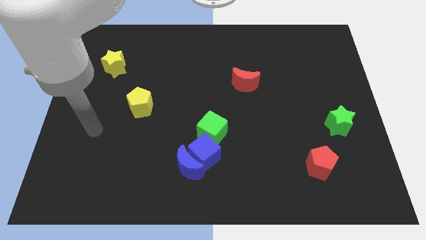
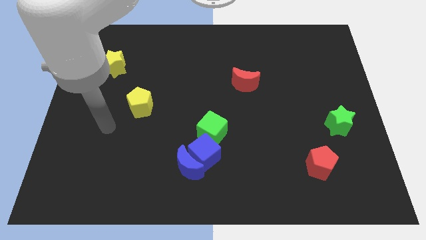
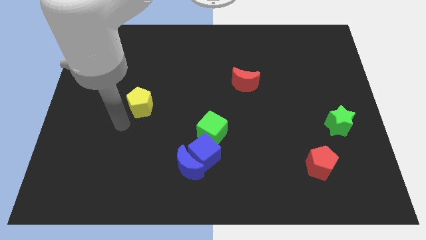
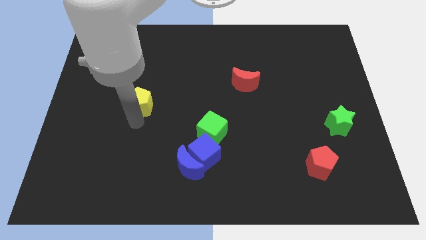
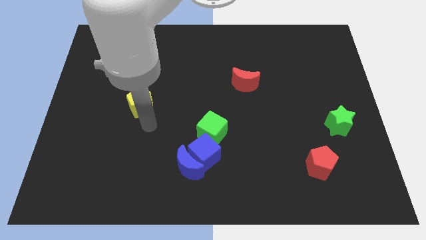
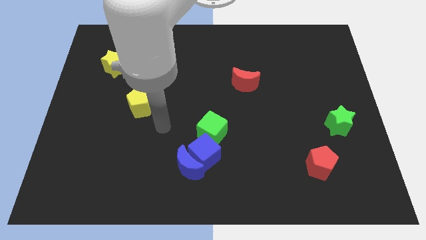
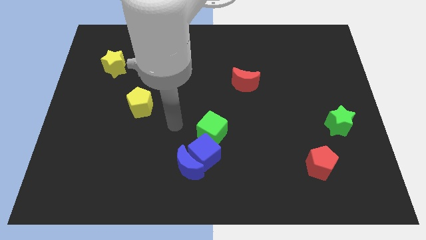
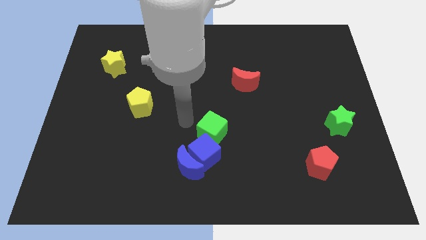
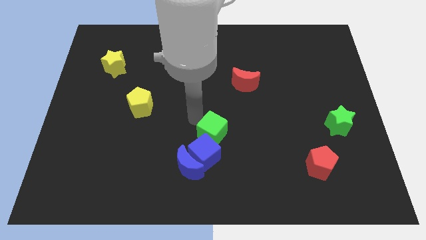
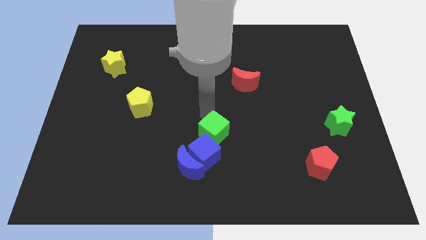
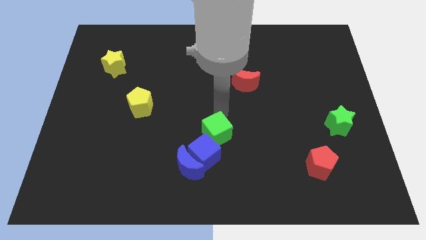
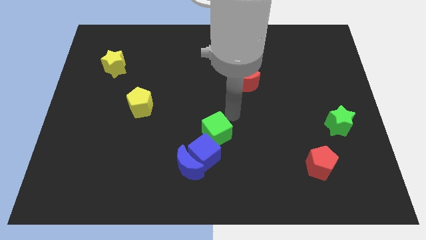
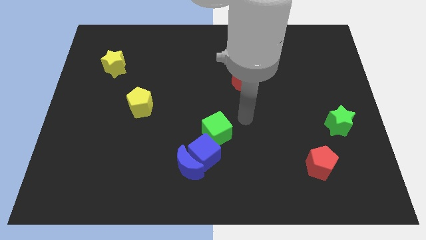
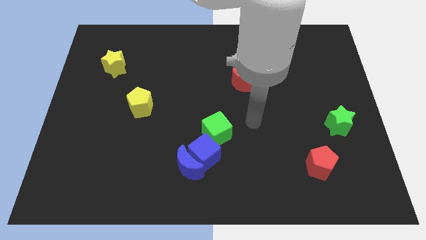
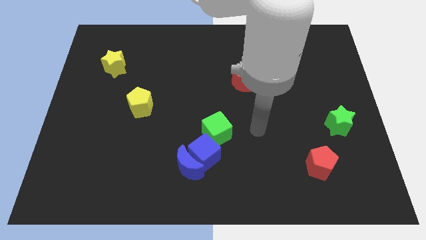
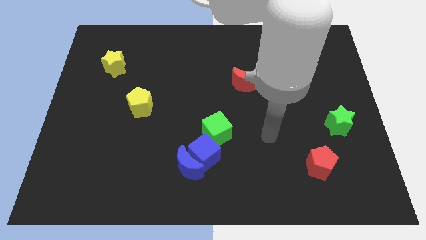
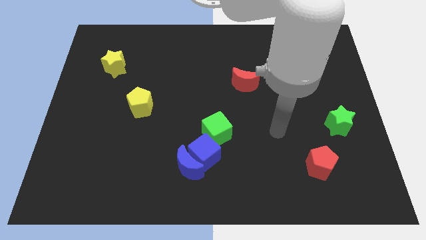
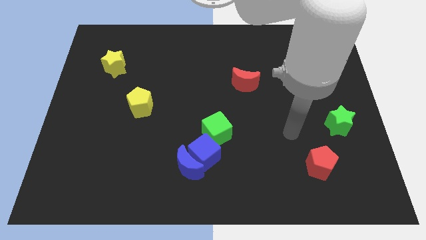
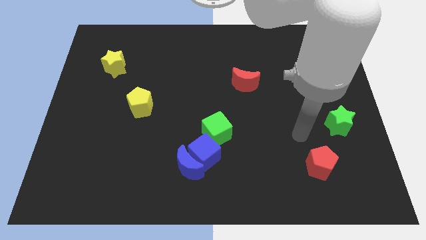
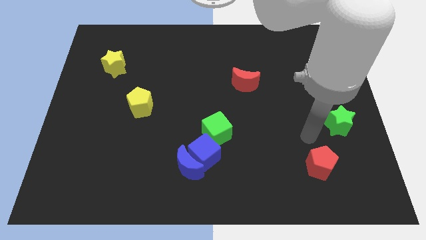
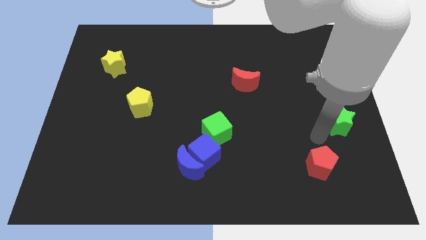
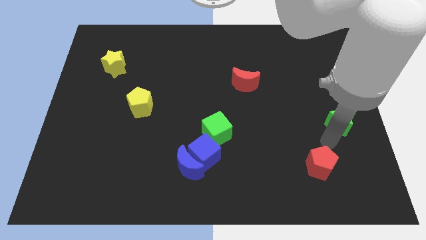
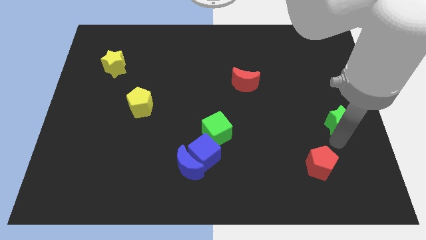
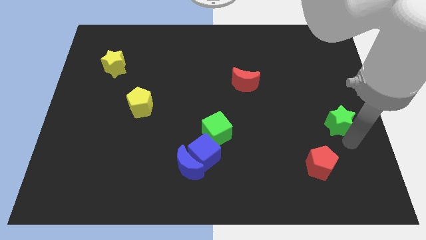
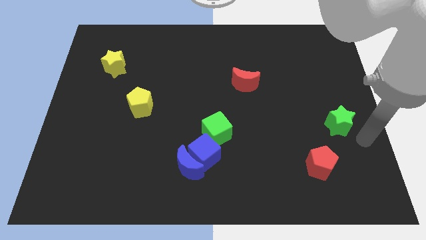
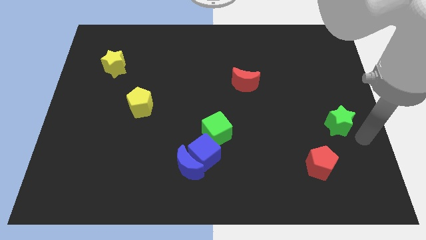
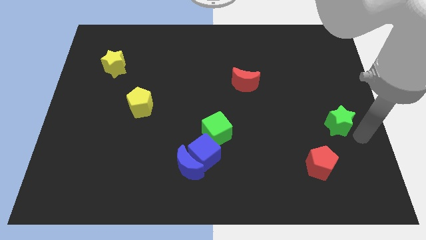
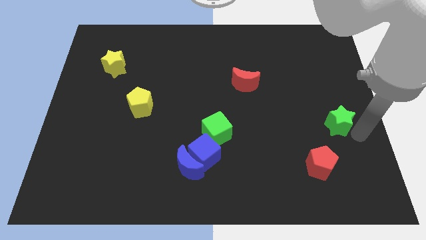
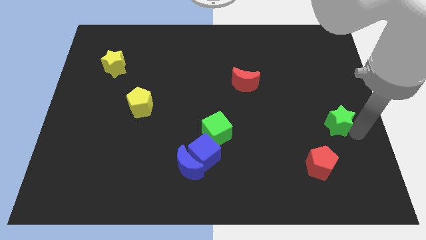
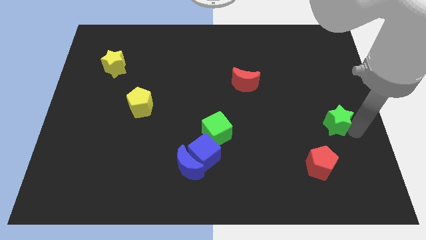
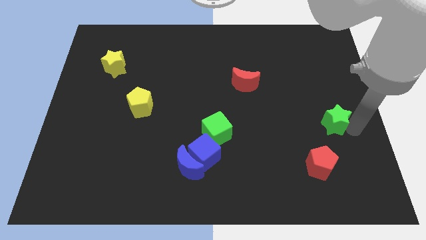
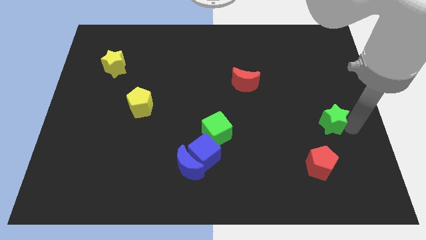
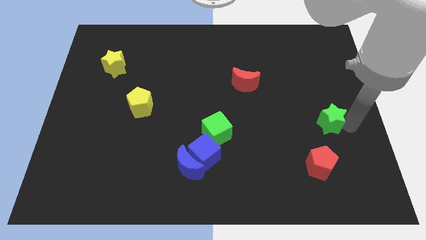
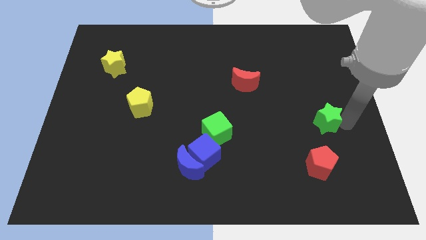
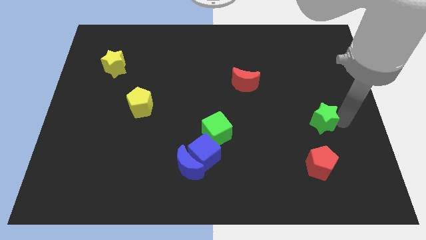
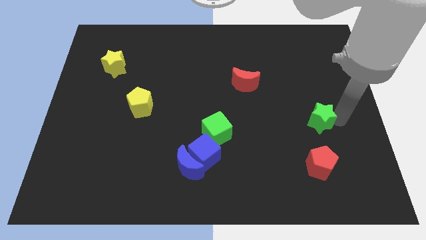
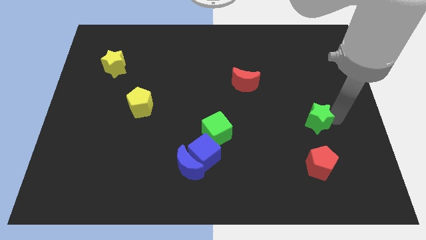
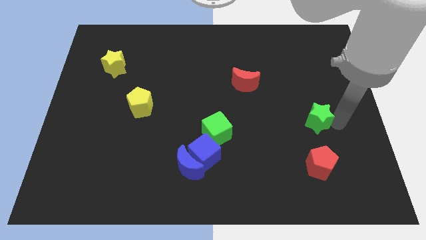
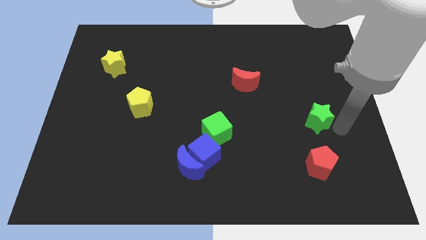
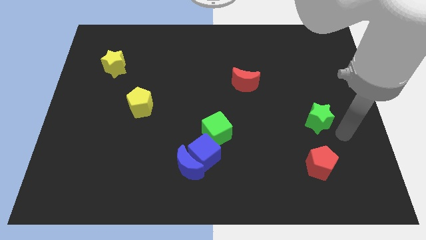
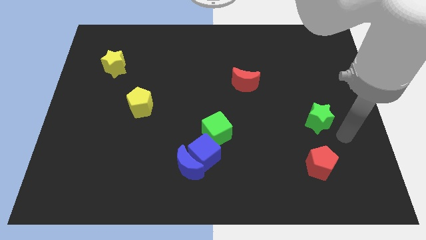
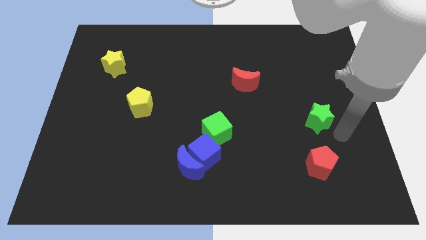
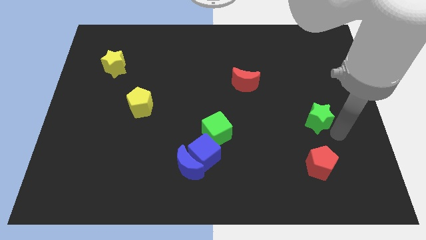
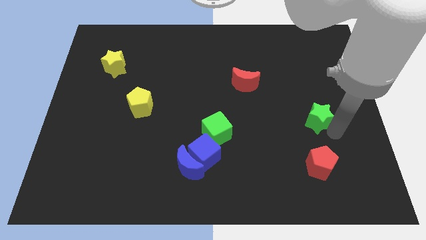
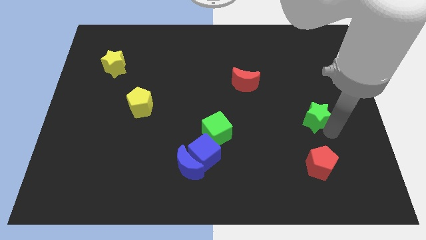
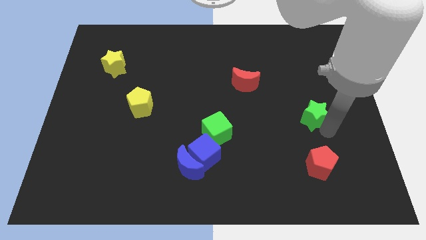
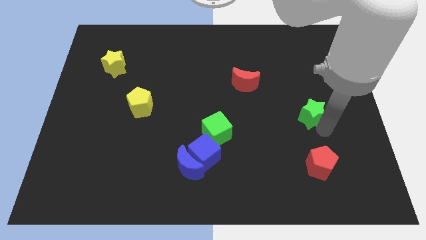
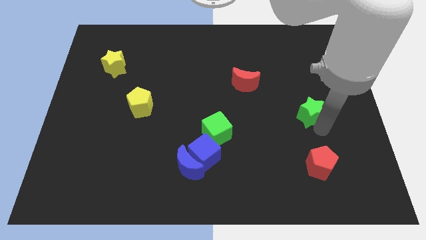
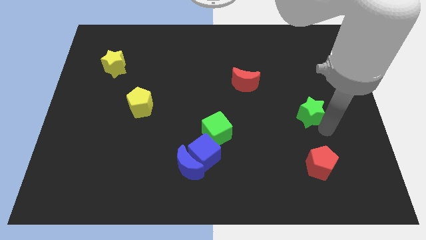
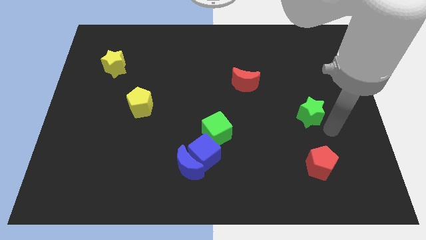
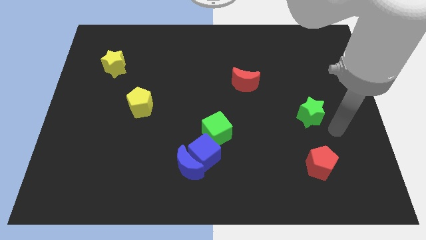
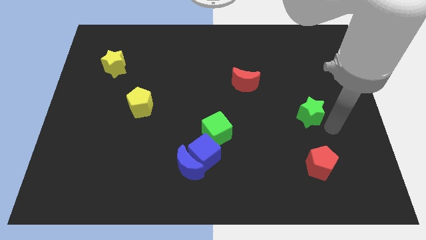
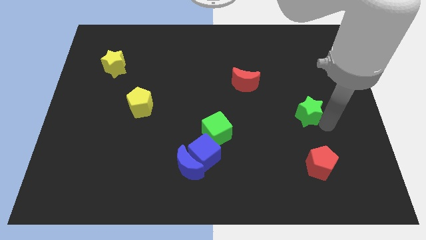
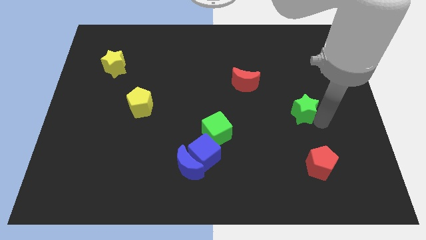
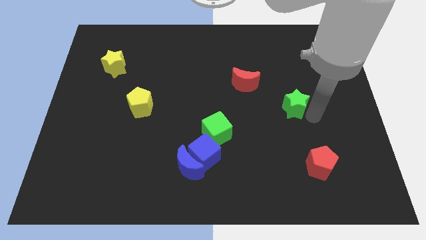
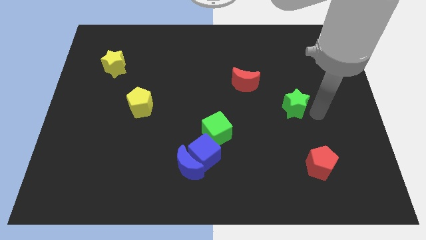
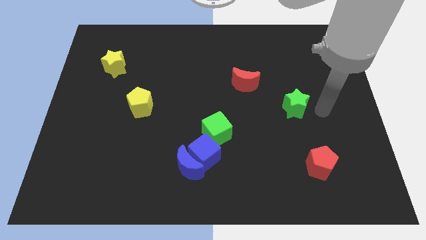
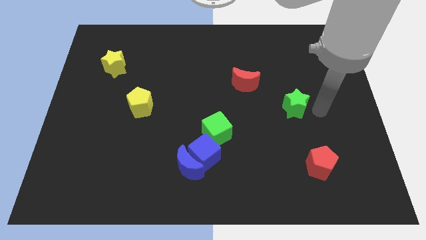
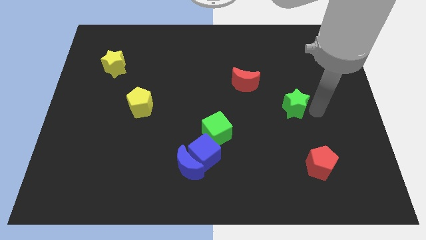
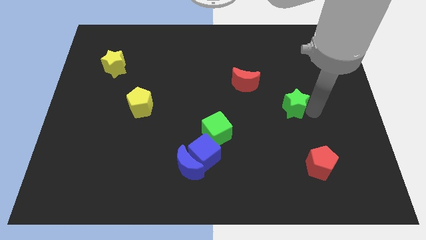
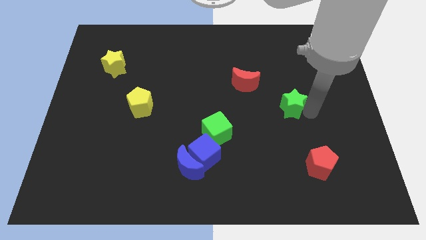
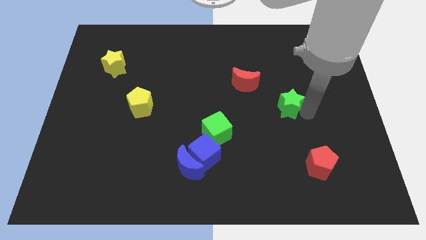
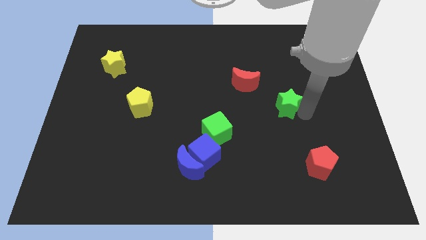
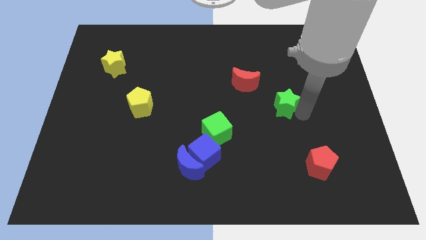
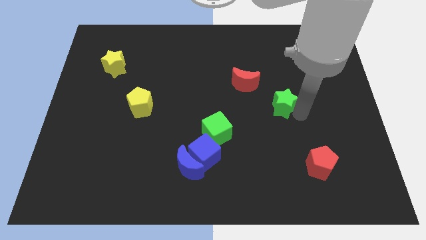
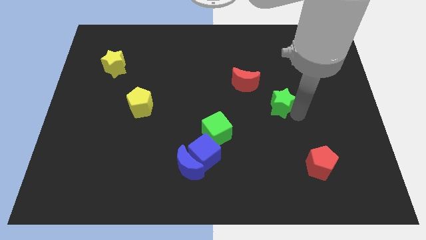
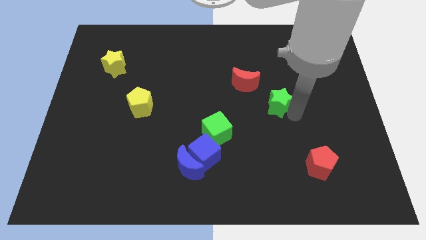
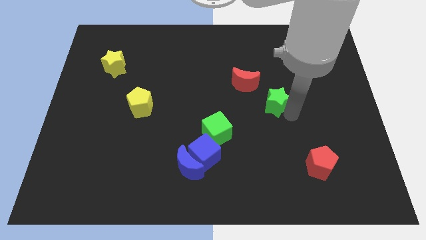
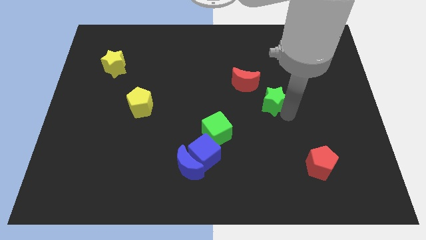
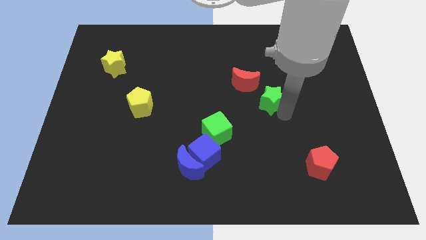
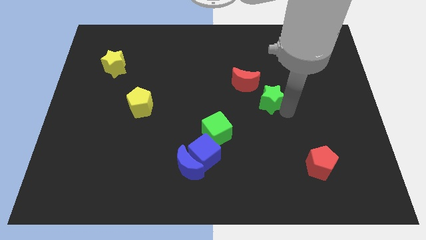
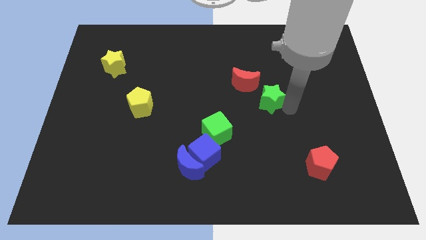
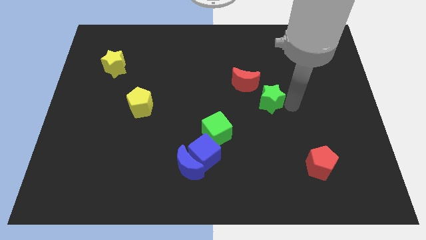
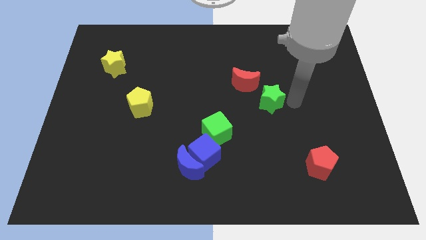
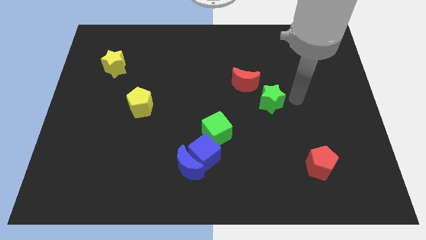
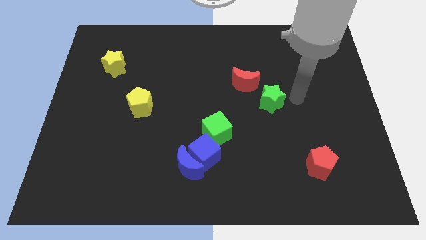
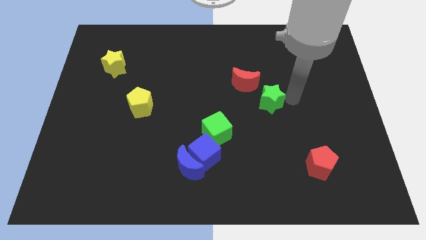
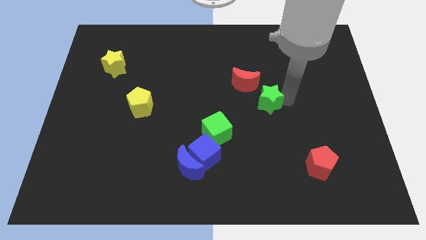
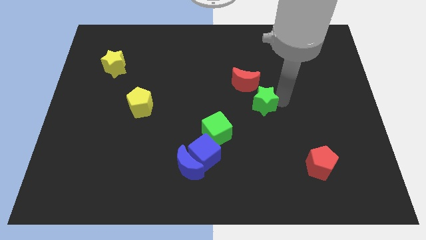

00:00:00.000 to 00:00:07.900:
slide the green star to the center
